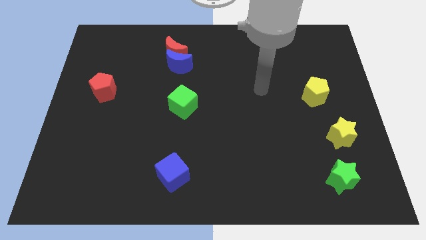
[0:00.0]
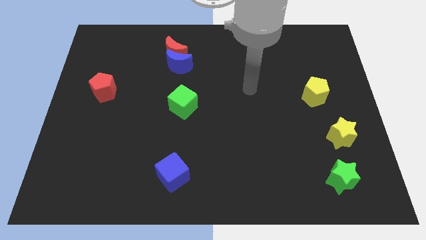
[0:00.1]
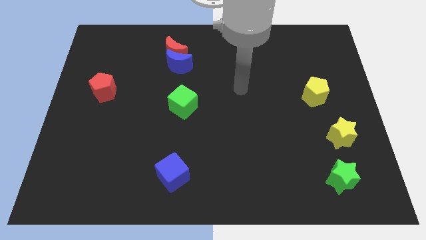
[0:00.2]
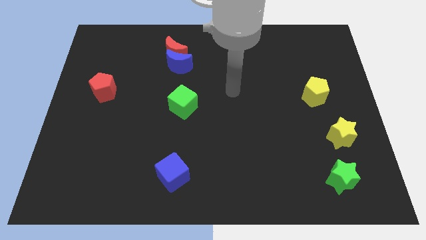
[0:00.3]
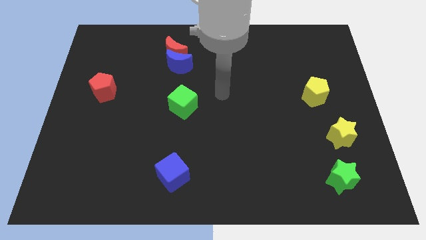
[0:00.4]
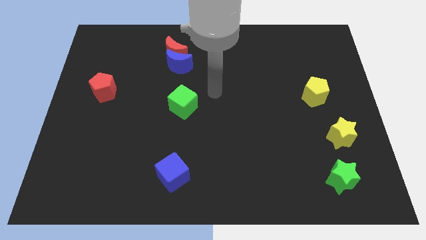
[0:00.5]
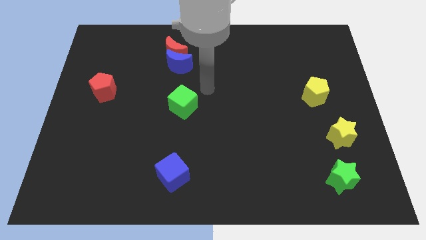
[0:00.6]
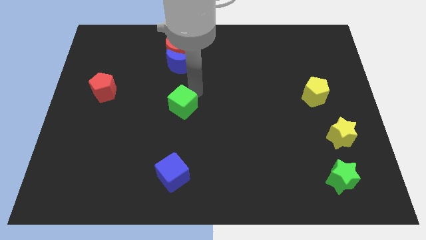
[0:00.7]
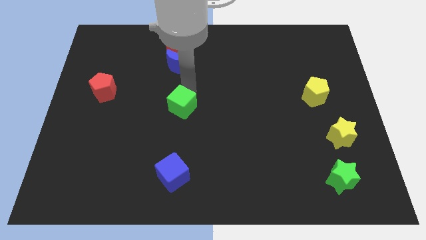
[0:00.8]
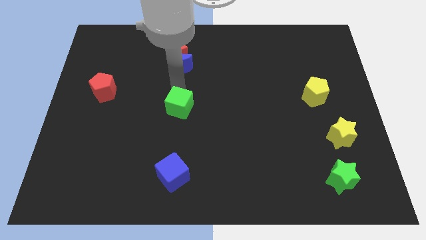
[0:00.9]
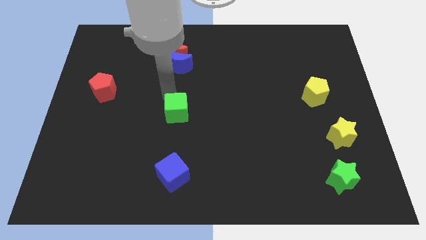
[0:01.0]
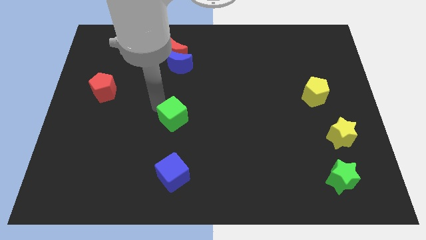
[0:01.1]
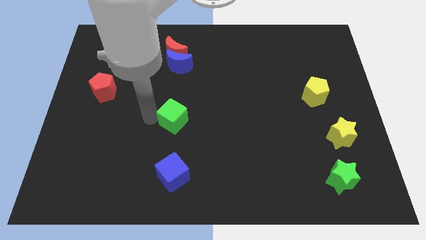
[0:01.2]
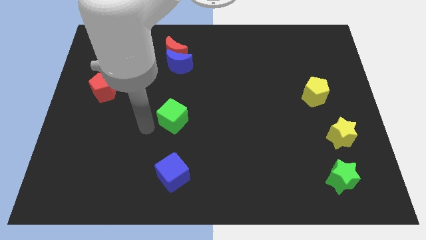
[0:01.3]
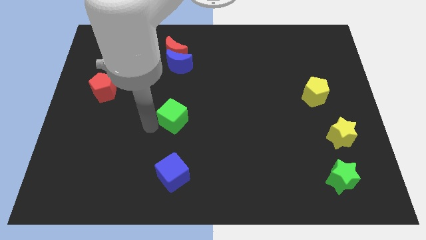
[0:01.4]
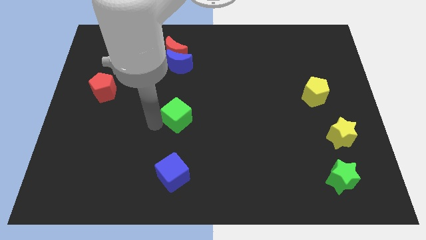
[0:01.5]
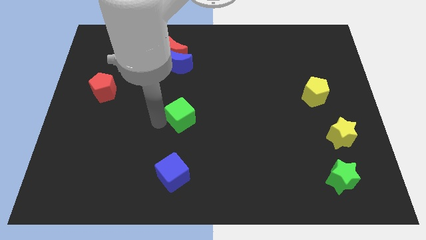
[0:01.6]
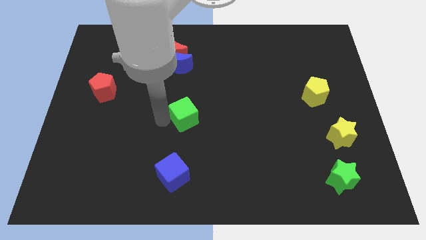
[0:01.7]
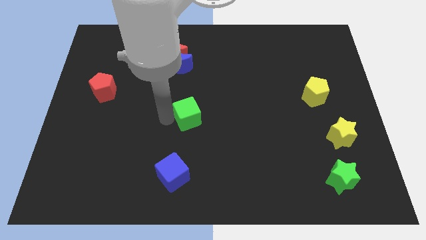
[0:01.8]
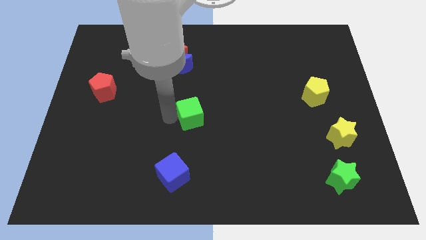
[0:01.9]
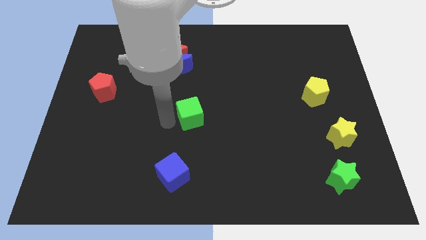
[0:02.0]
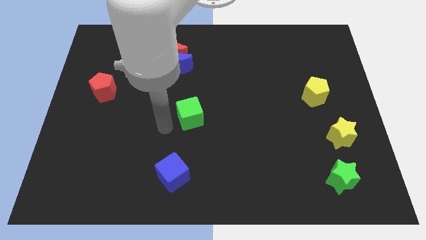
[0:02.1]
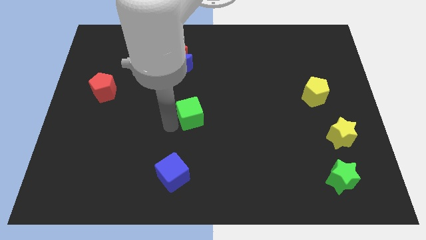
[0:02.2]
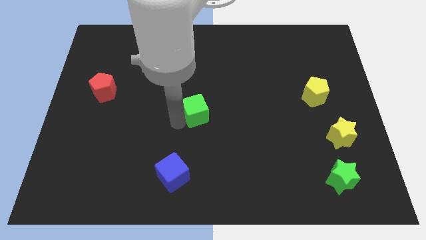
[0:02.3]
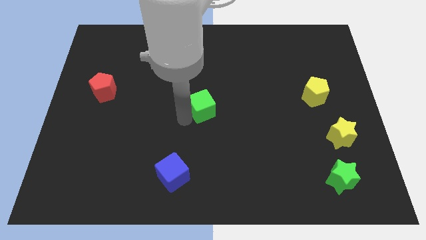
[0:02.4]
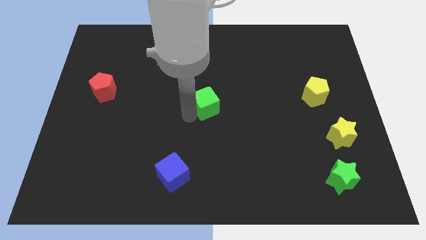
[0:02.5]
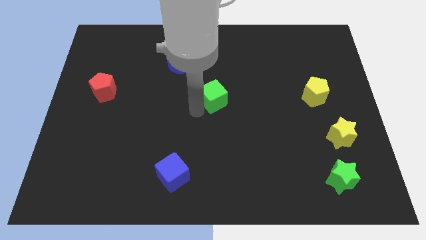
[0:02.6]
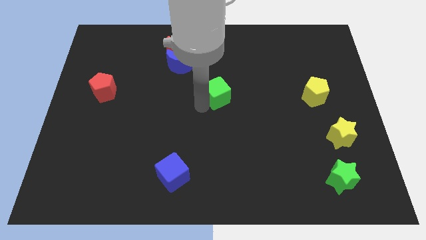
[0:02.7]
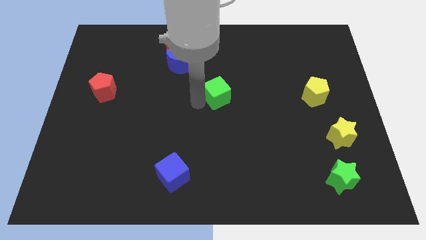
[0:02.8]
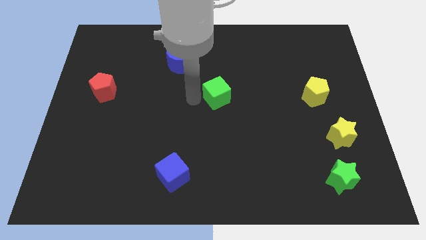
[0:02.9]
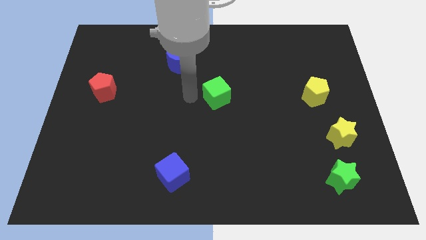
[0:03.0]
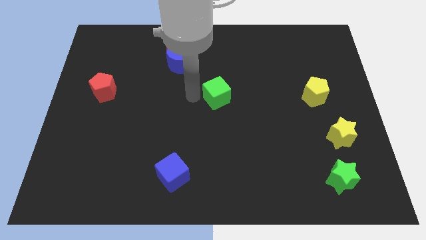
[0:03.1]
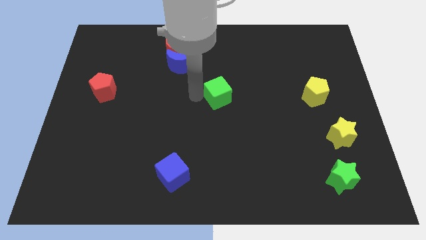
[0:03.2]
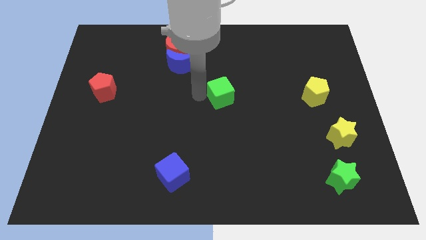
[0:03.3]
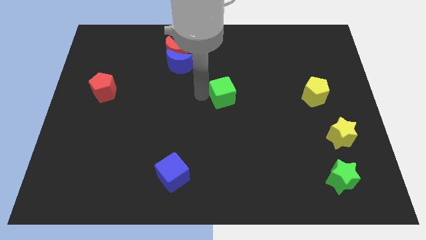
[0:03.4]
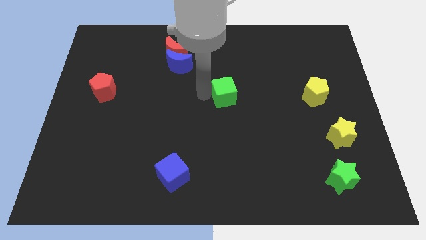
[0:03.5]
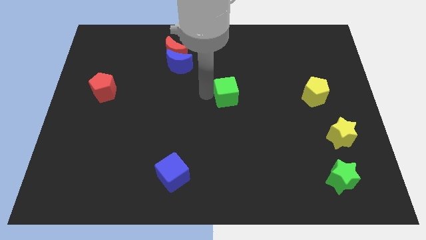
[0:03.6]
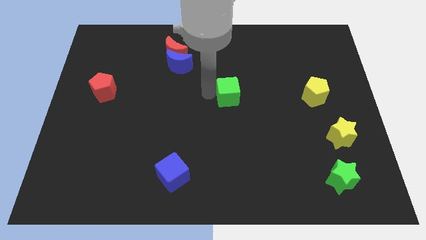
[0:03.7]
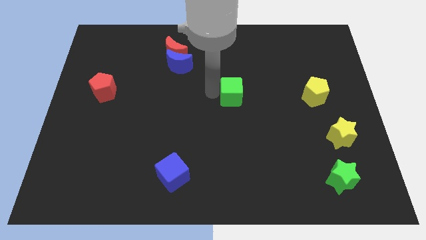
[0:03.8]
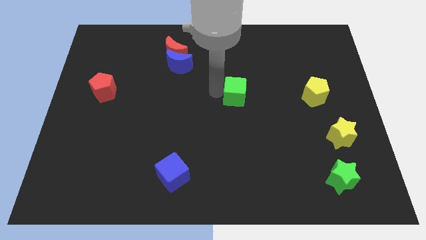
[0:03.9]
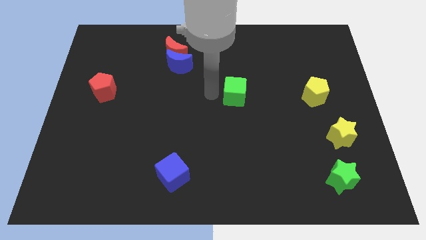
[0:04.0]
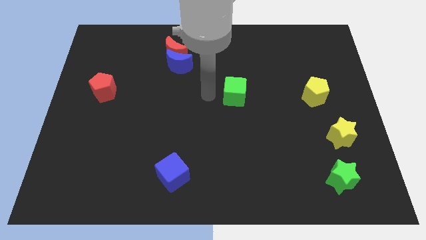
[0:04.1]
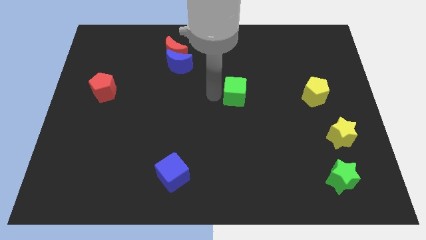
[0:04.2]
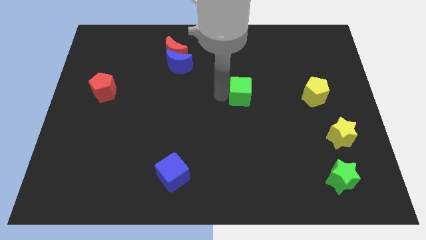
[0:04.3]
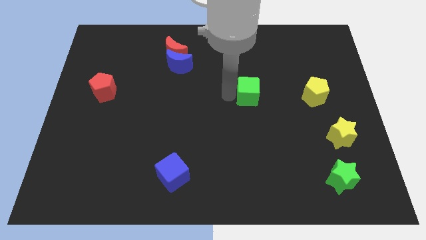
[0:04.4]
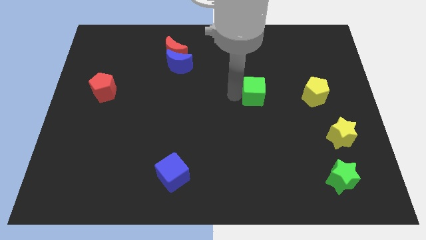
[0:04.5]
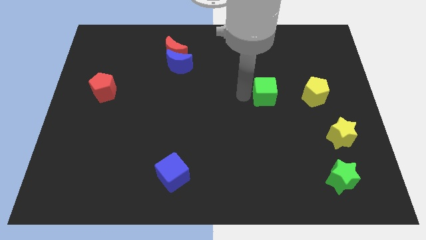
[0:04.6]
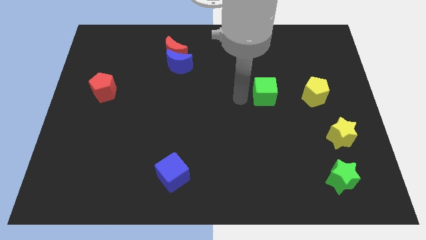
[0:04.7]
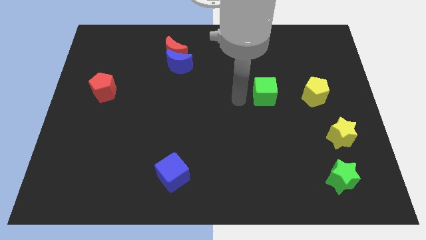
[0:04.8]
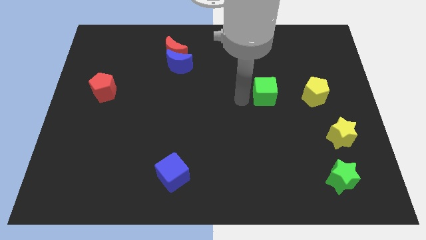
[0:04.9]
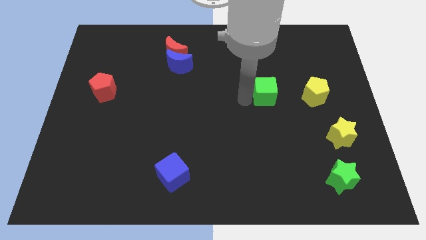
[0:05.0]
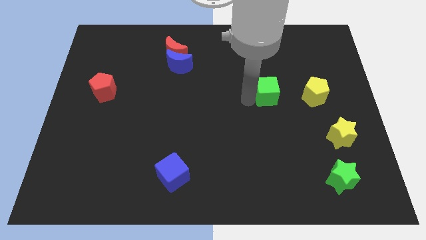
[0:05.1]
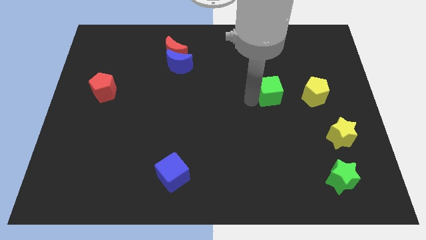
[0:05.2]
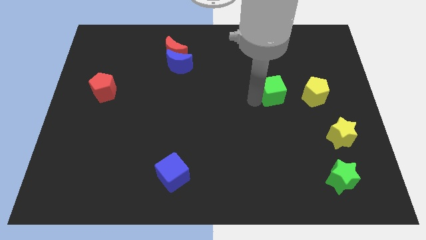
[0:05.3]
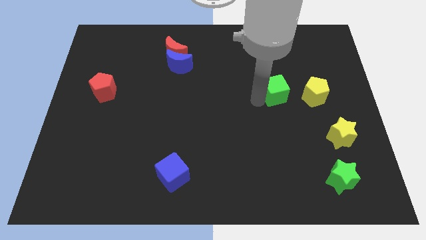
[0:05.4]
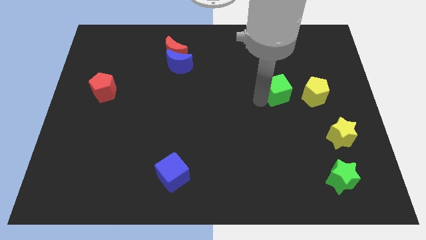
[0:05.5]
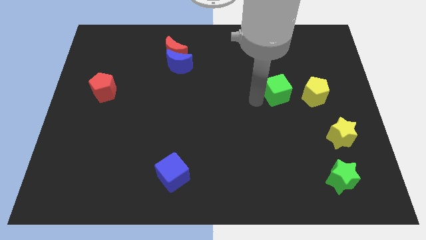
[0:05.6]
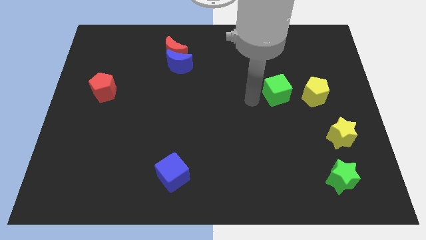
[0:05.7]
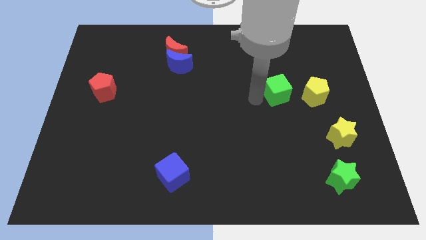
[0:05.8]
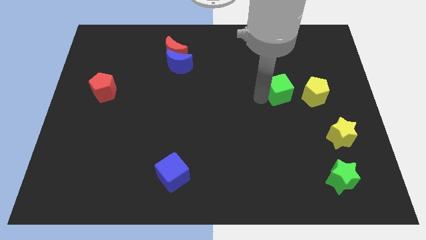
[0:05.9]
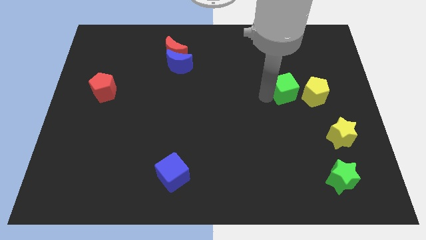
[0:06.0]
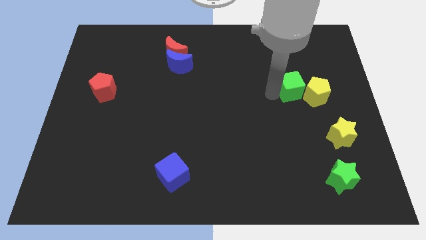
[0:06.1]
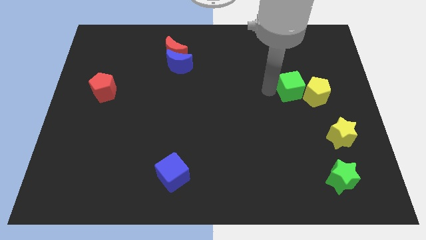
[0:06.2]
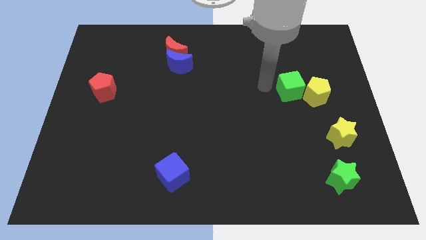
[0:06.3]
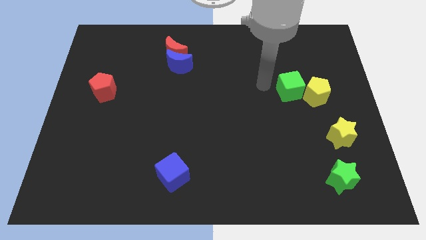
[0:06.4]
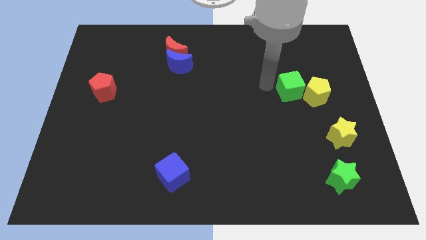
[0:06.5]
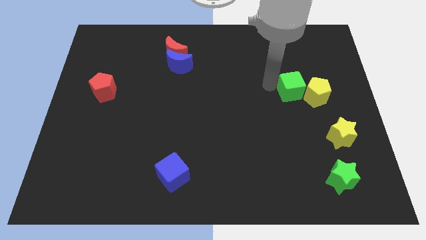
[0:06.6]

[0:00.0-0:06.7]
push the green cube to the yellow pentagon
